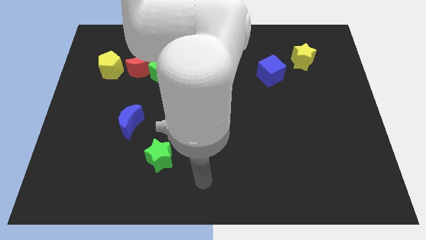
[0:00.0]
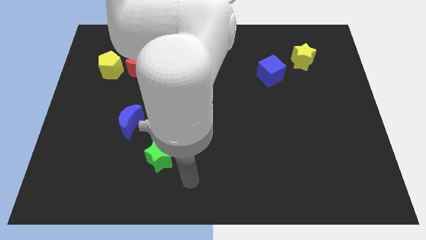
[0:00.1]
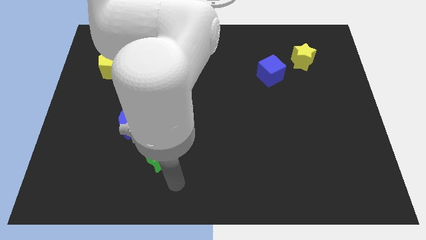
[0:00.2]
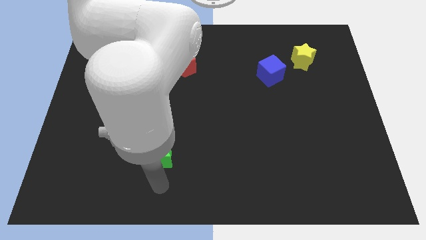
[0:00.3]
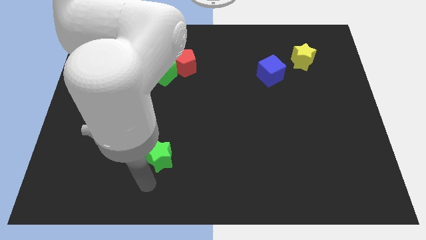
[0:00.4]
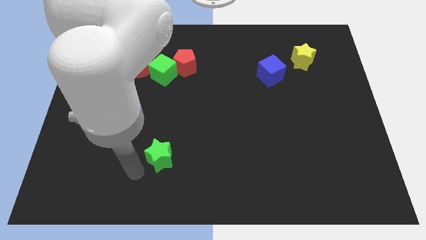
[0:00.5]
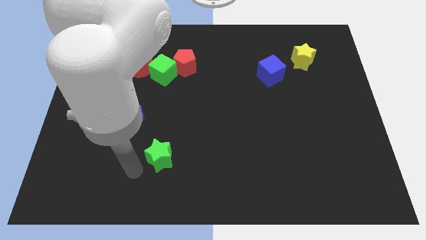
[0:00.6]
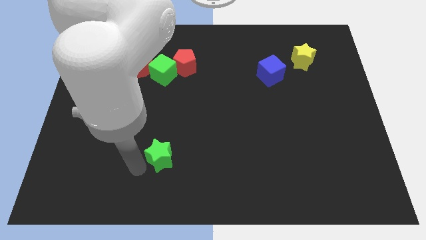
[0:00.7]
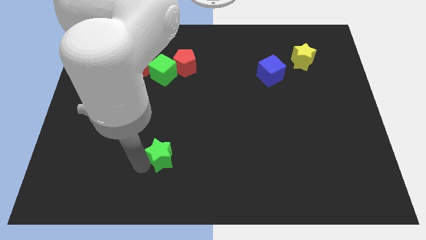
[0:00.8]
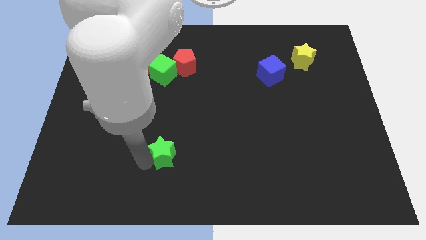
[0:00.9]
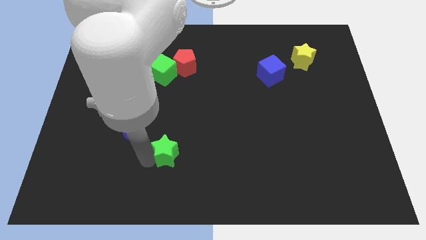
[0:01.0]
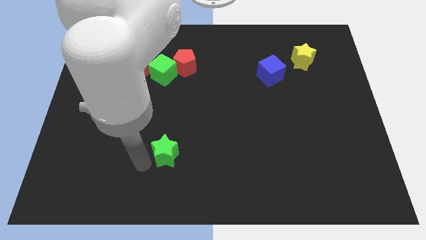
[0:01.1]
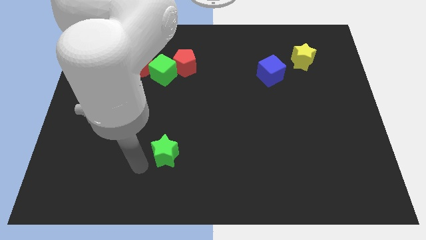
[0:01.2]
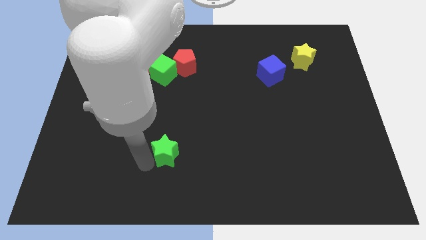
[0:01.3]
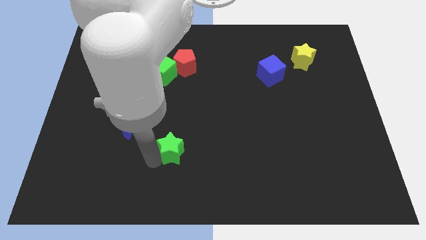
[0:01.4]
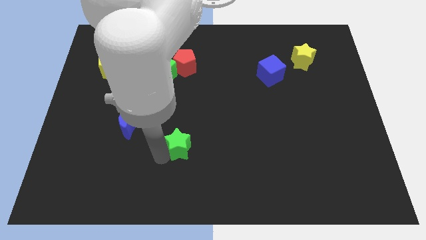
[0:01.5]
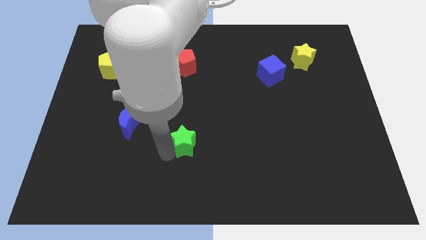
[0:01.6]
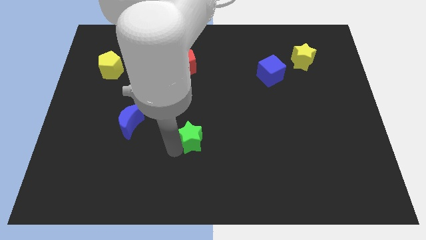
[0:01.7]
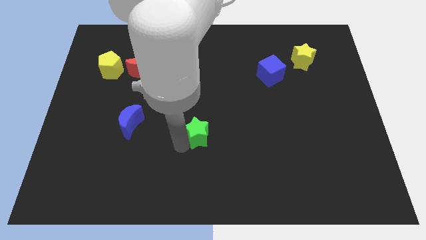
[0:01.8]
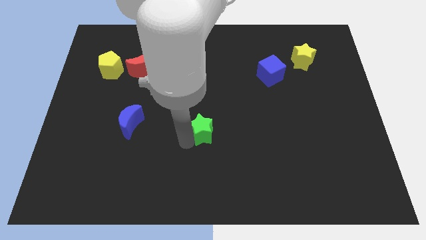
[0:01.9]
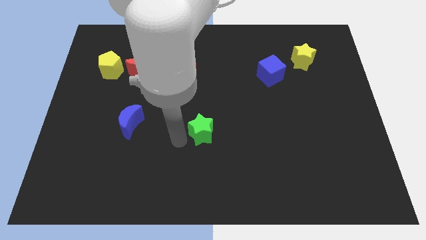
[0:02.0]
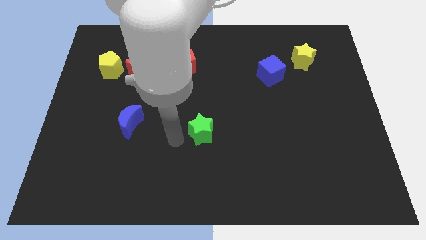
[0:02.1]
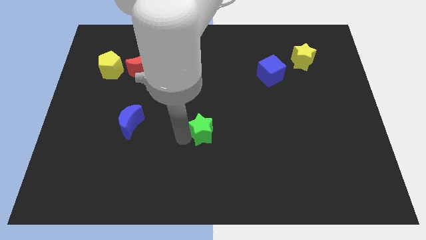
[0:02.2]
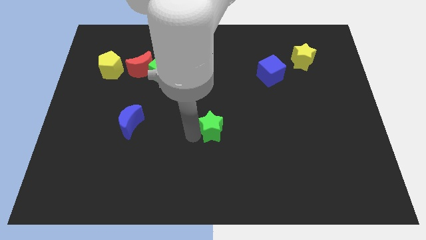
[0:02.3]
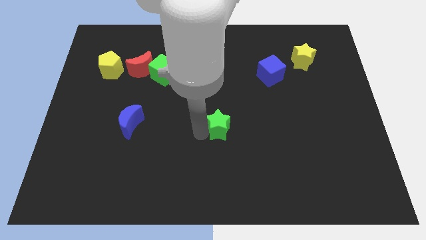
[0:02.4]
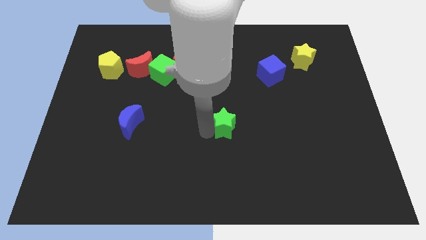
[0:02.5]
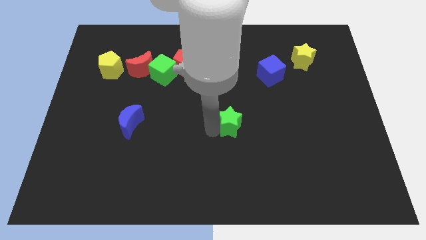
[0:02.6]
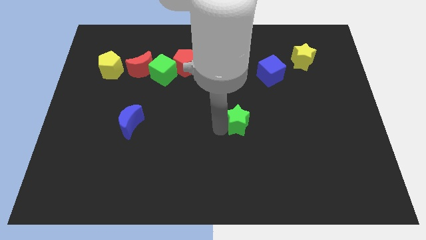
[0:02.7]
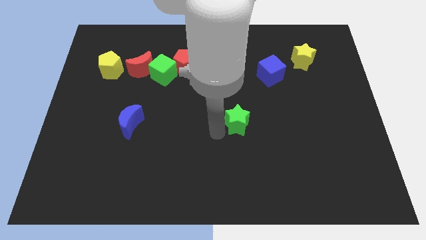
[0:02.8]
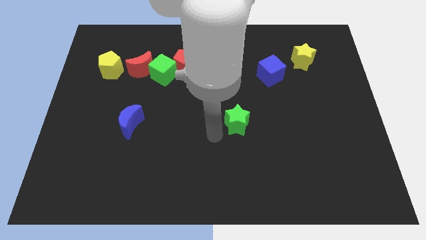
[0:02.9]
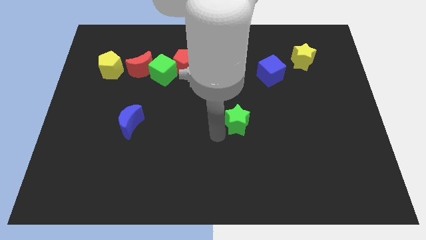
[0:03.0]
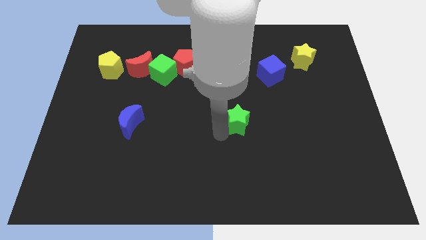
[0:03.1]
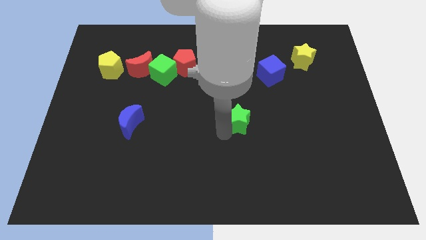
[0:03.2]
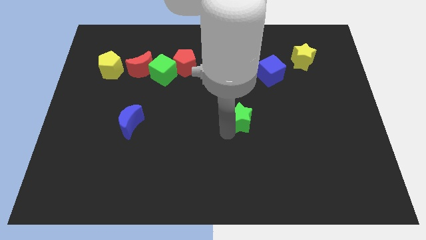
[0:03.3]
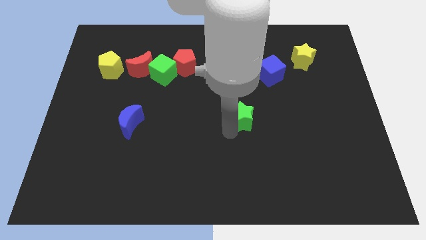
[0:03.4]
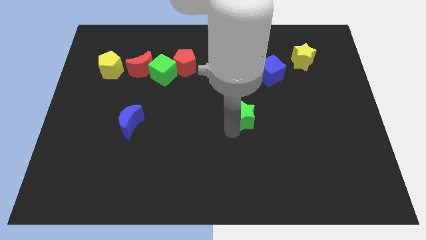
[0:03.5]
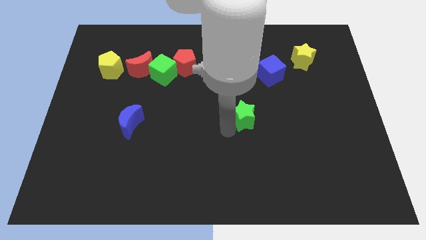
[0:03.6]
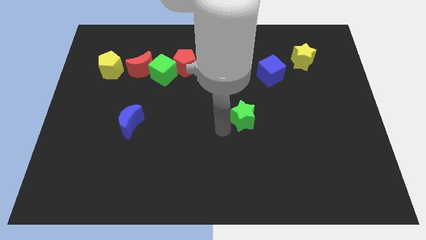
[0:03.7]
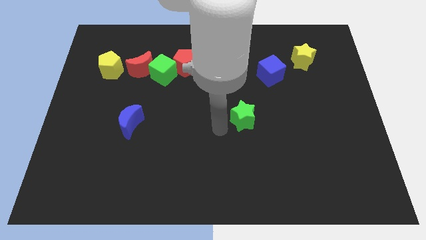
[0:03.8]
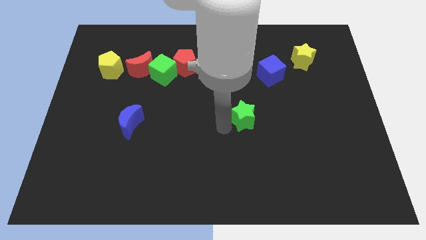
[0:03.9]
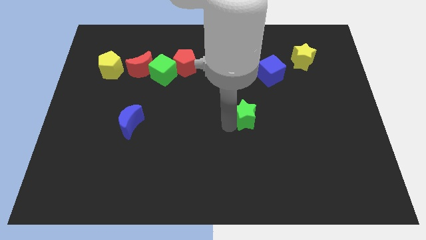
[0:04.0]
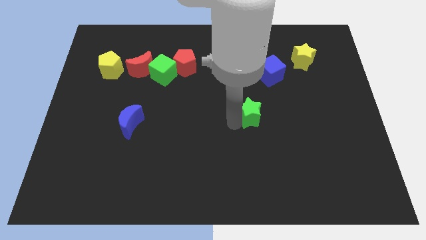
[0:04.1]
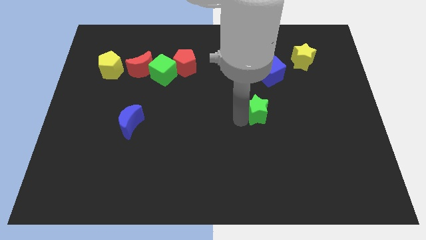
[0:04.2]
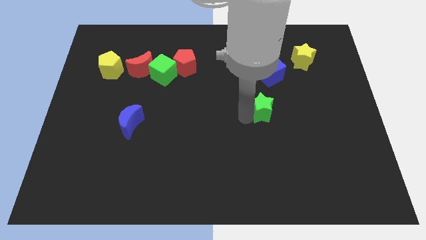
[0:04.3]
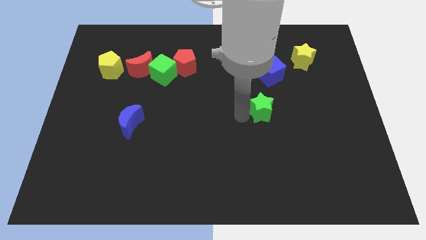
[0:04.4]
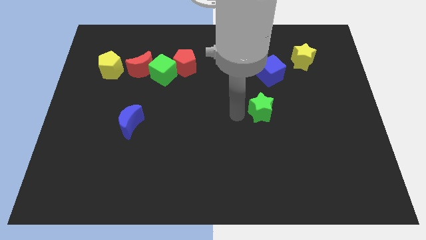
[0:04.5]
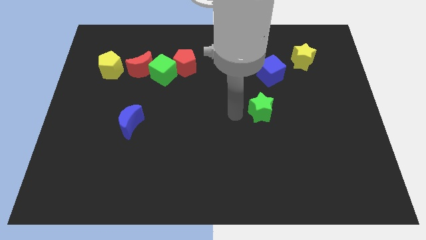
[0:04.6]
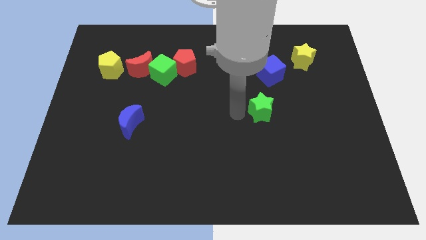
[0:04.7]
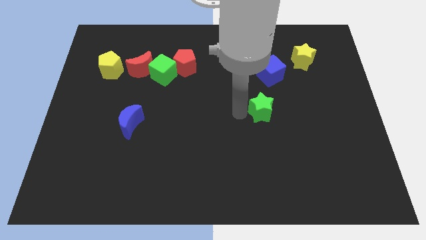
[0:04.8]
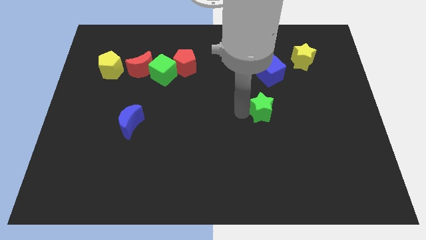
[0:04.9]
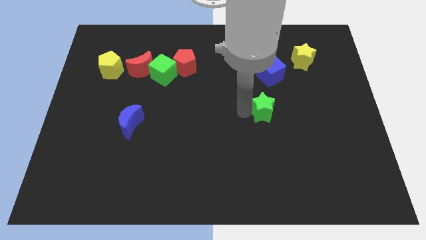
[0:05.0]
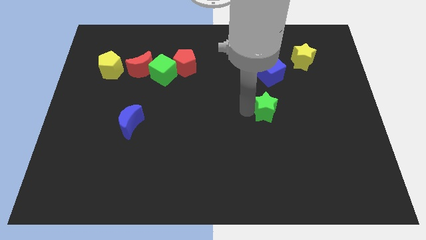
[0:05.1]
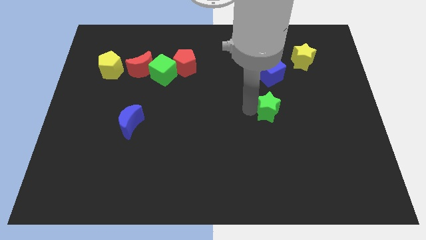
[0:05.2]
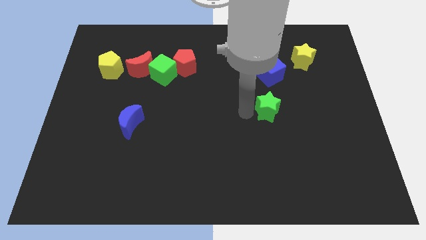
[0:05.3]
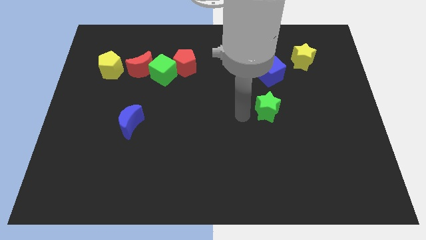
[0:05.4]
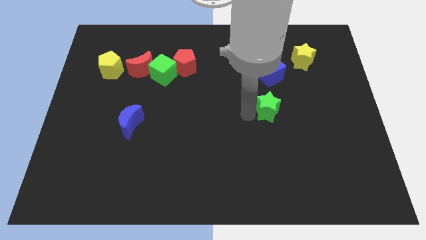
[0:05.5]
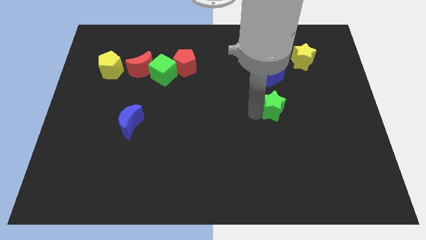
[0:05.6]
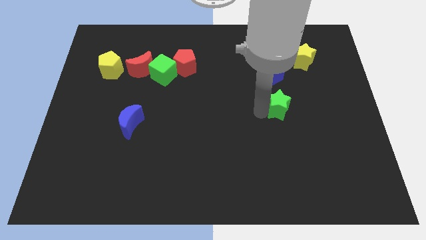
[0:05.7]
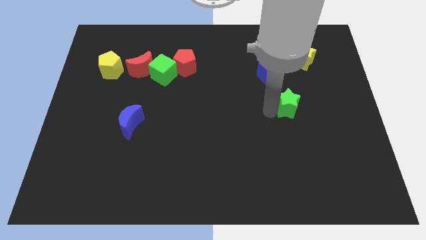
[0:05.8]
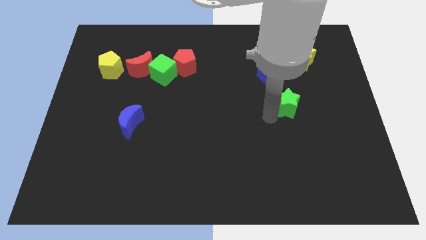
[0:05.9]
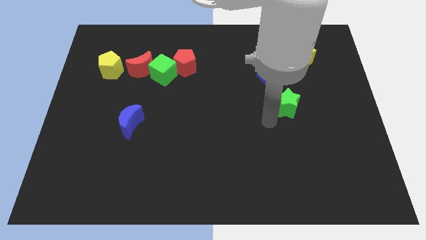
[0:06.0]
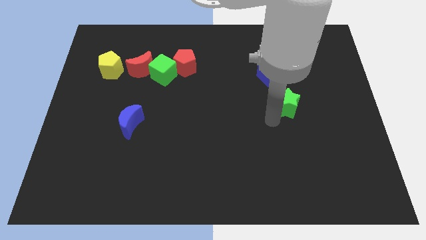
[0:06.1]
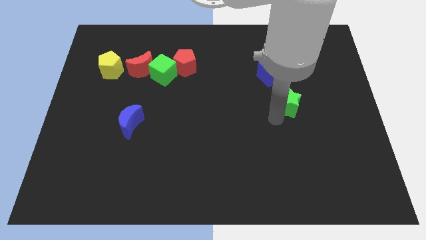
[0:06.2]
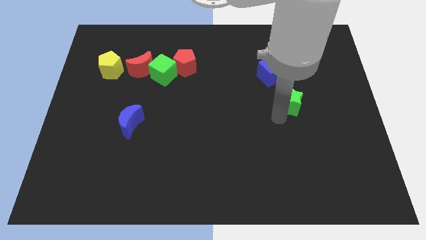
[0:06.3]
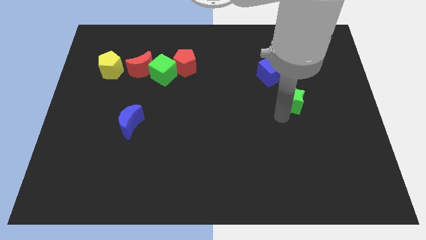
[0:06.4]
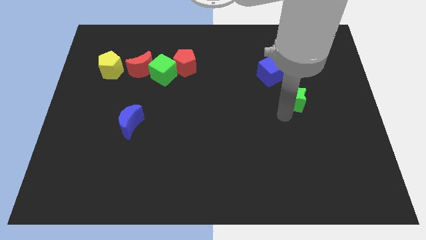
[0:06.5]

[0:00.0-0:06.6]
push the green star to the bottom of the yellow star
